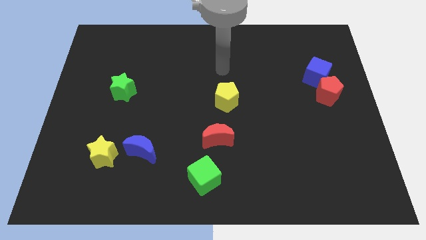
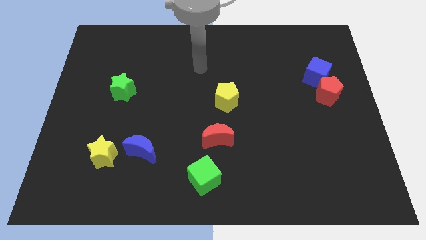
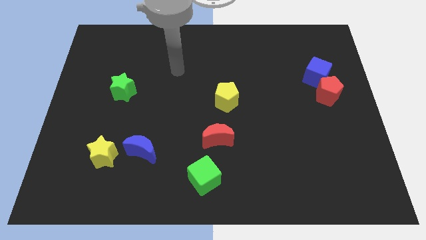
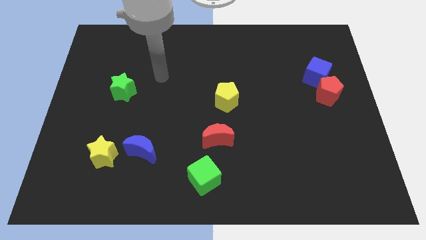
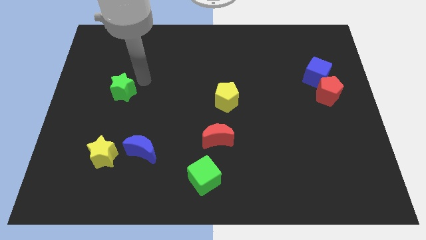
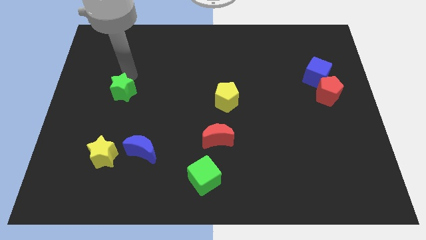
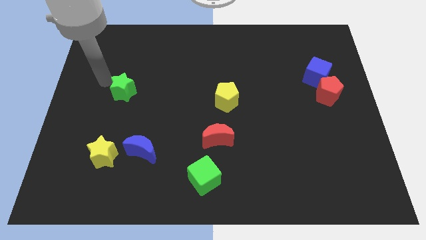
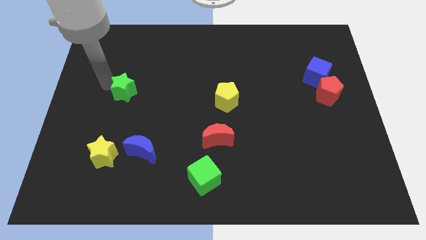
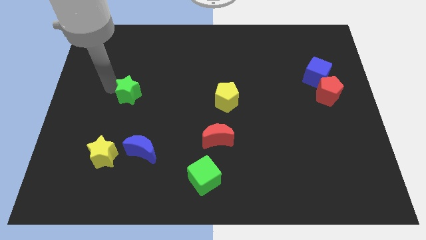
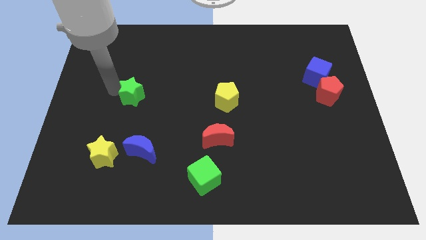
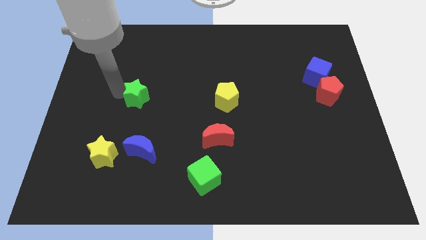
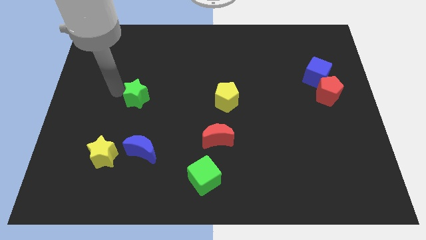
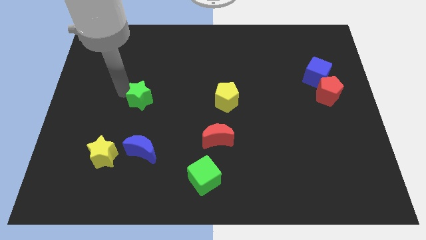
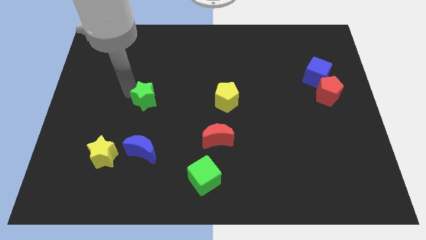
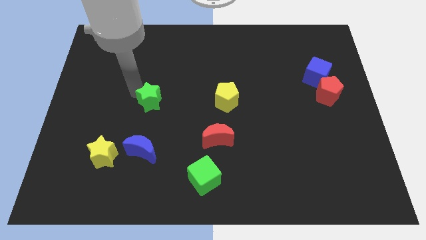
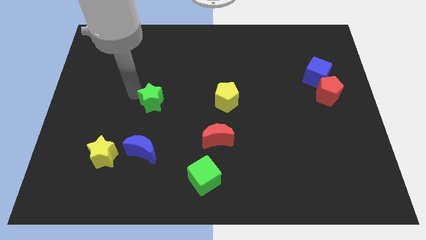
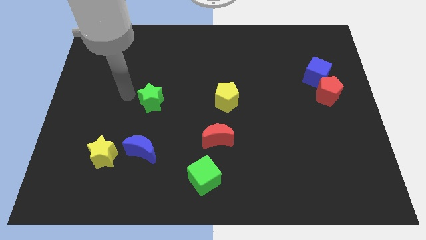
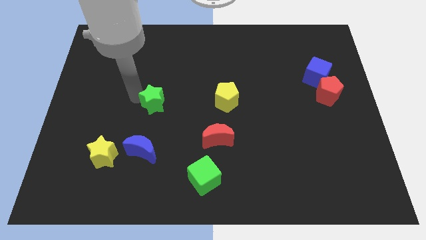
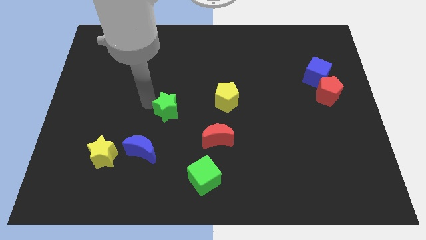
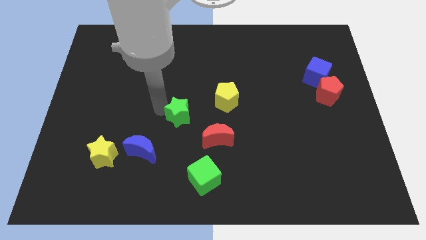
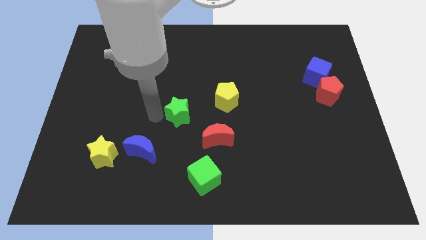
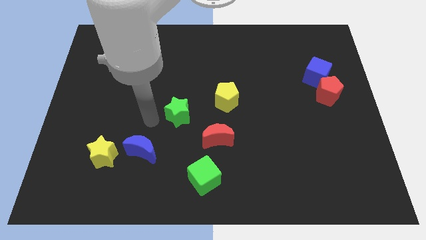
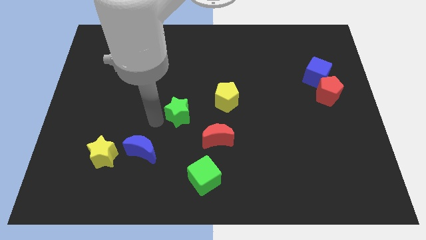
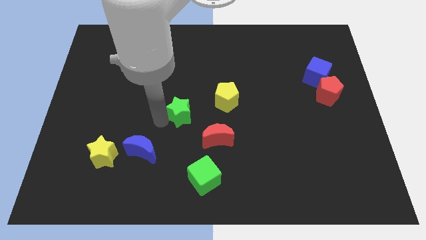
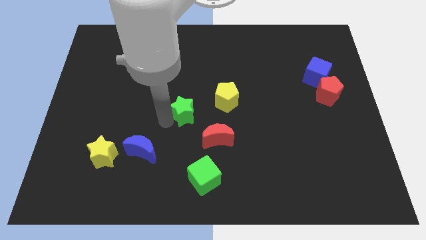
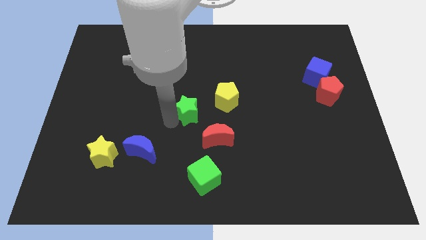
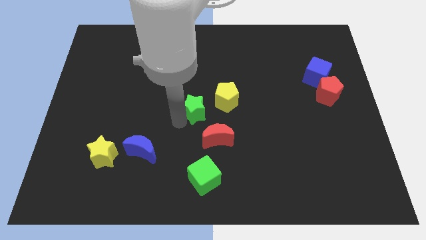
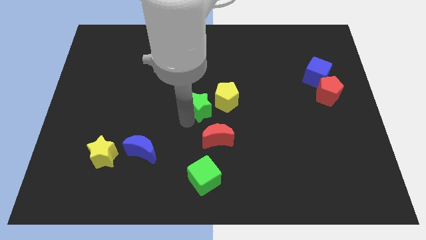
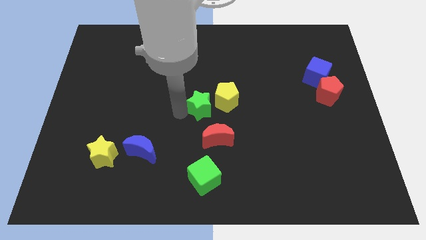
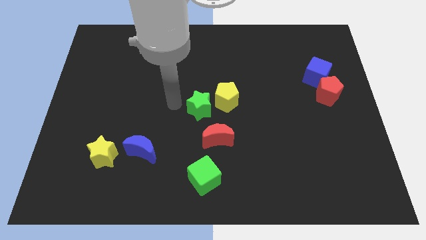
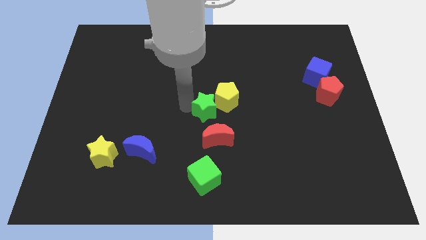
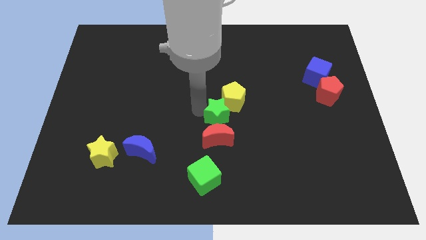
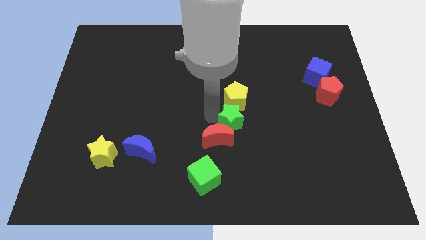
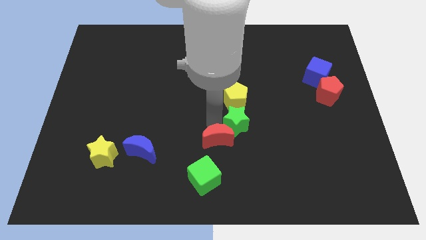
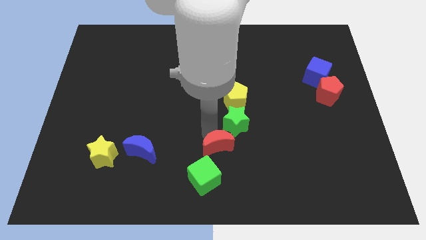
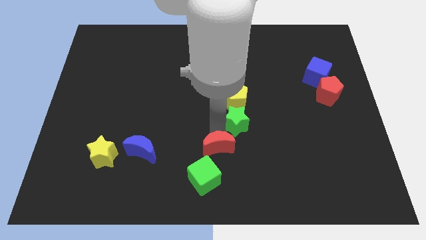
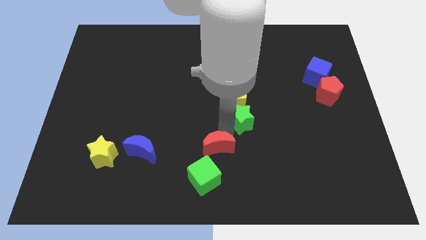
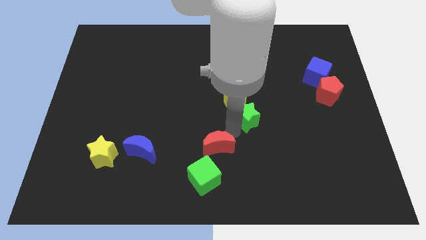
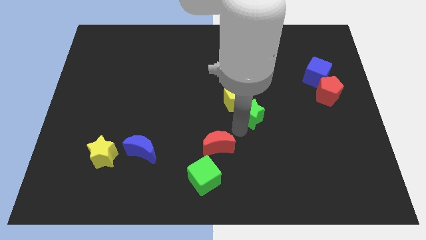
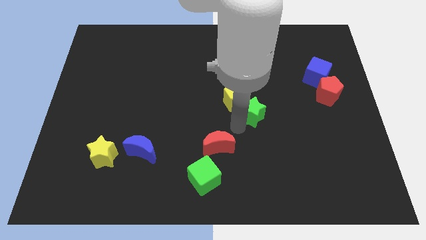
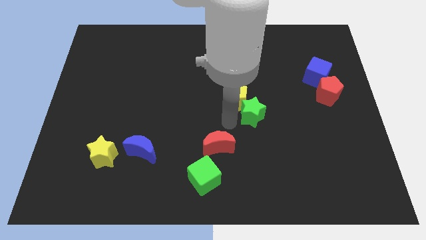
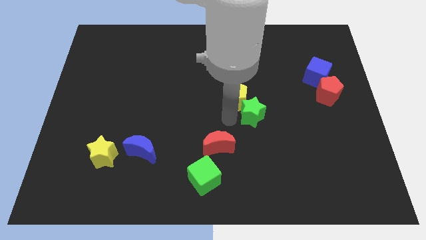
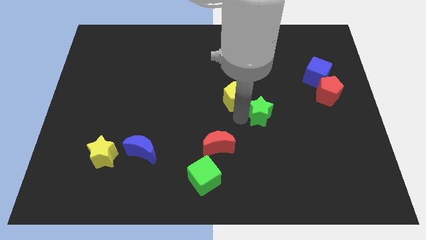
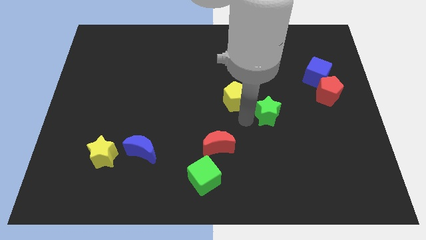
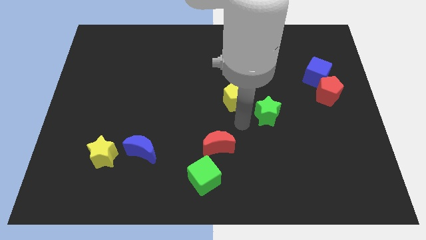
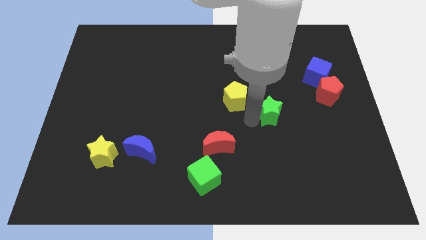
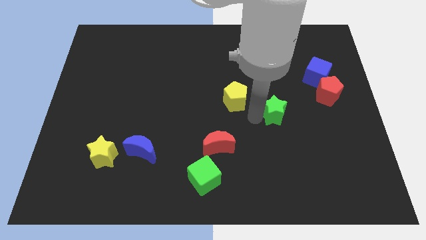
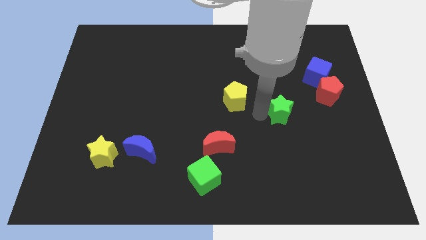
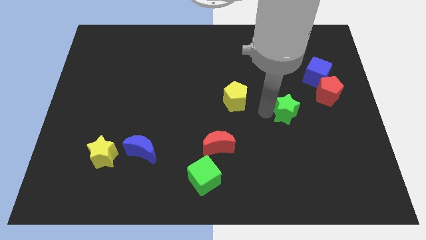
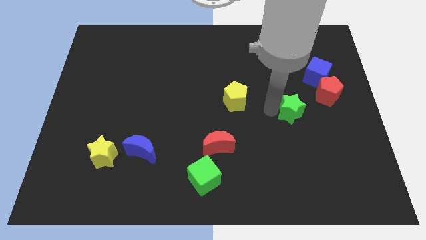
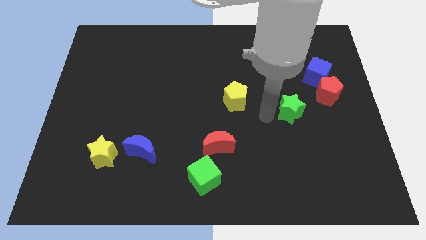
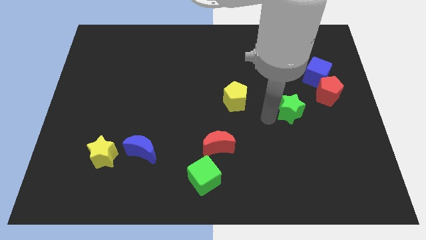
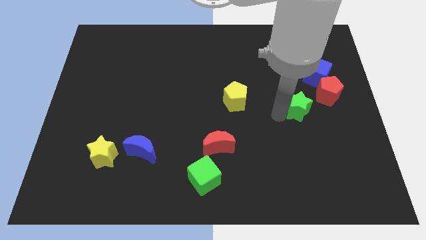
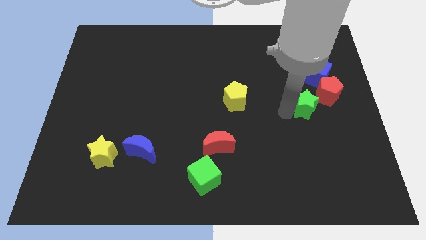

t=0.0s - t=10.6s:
put the green star below the blue cube

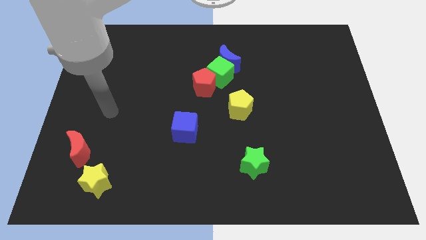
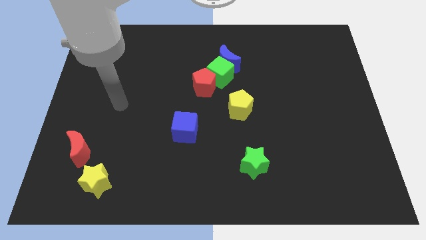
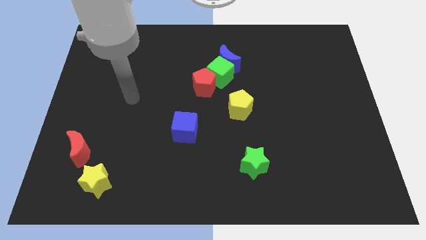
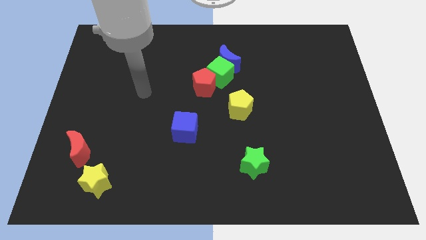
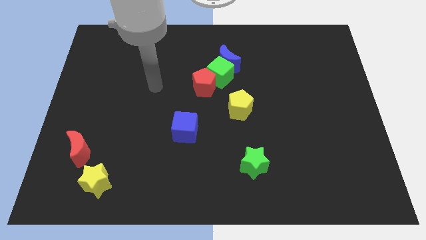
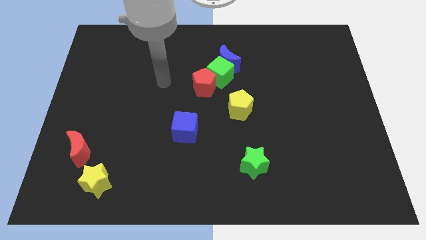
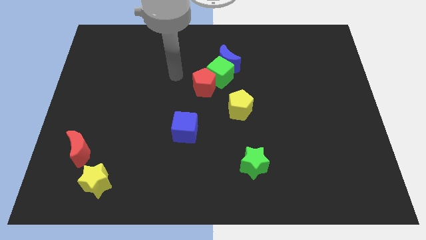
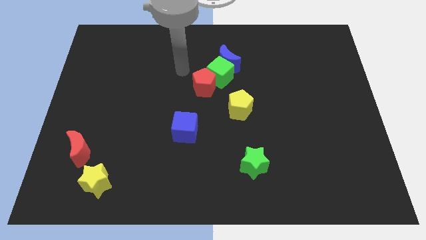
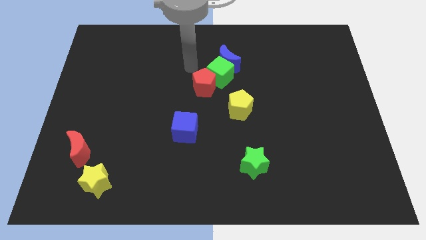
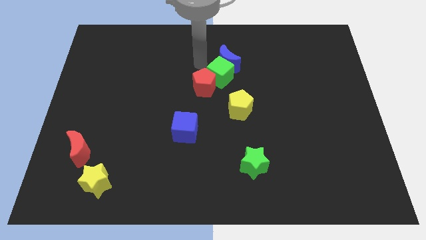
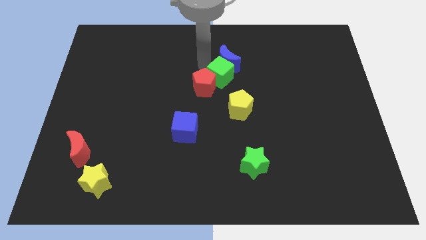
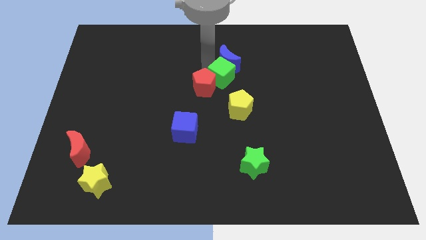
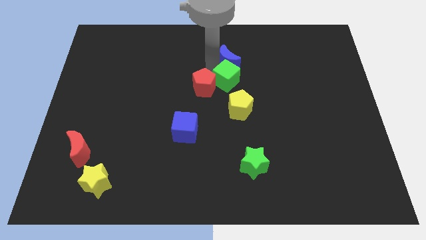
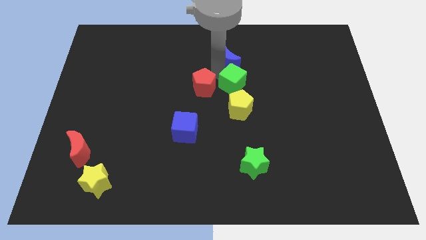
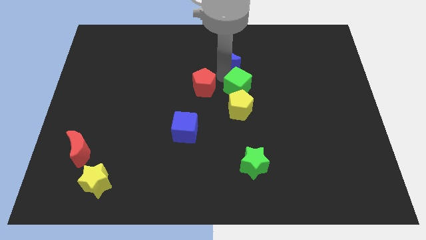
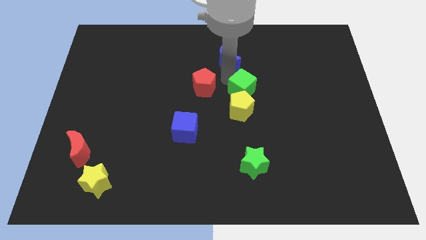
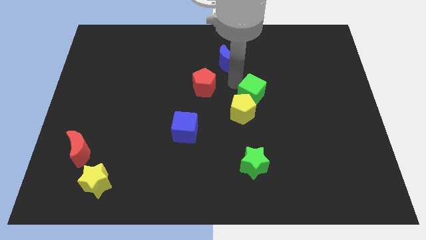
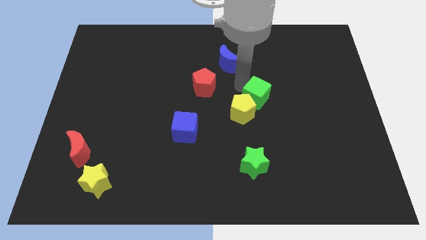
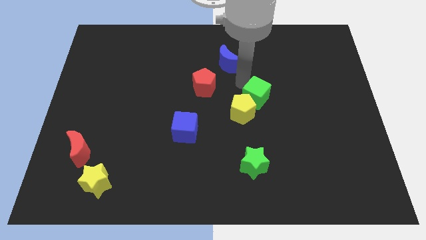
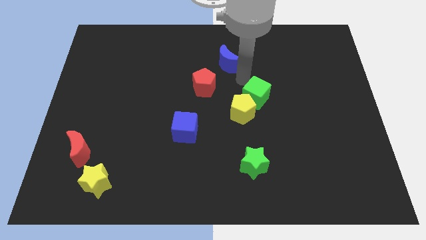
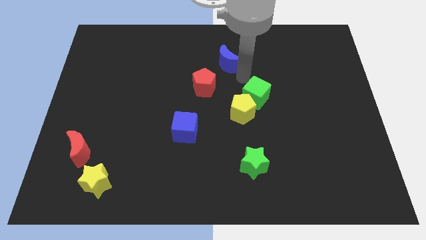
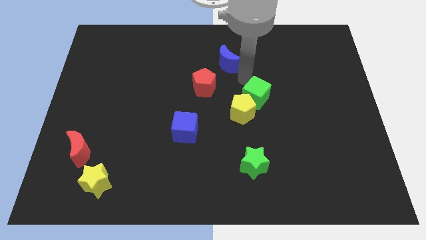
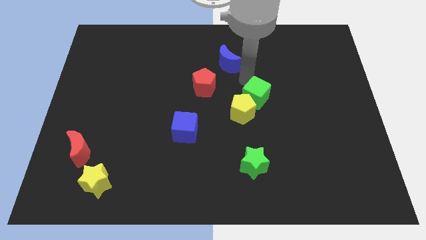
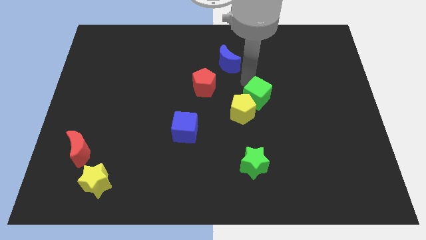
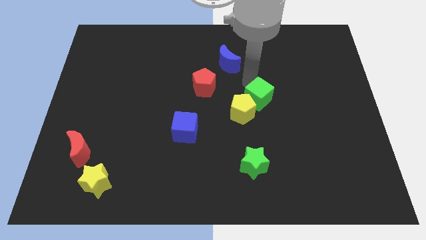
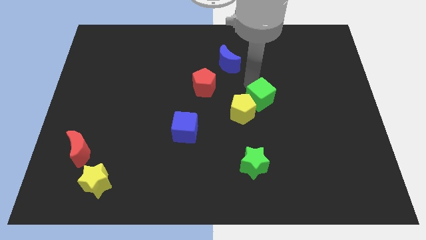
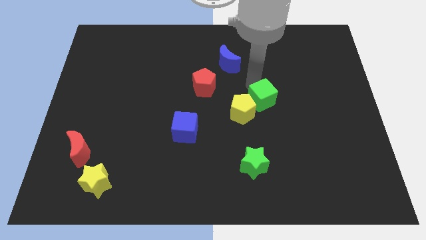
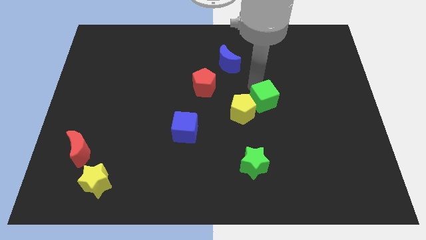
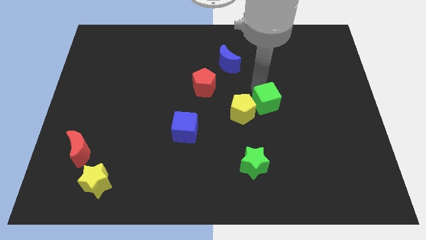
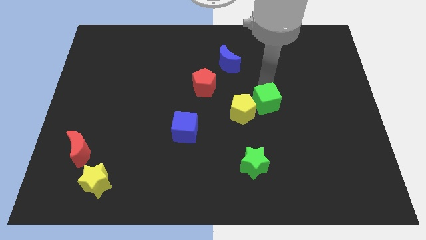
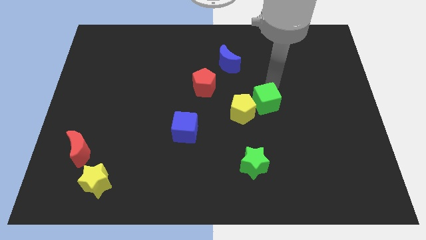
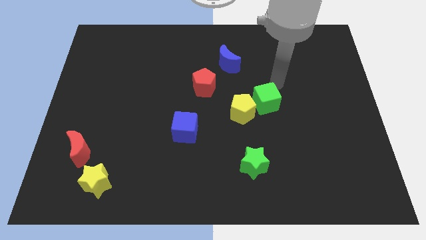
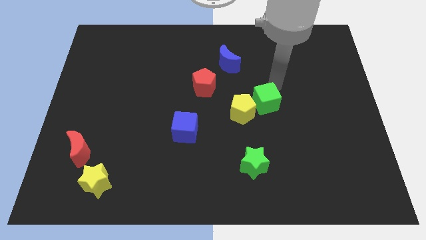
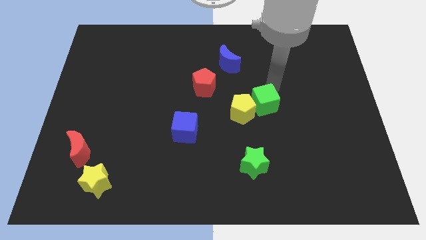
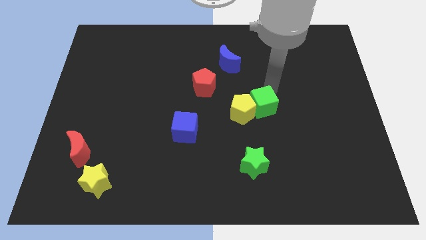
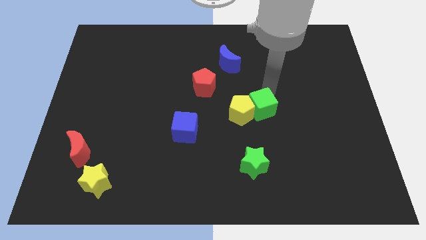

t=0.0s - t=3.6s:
slide the green cube to the top side of the green star
